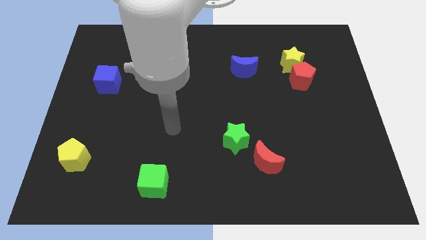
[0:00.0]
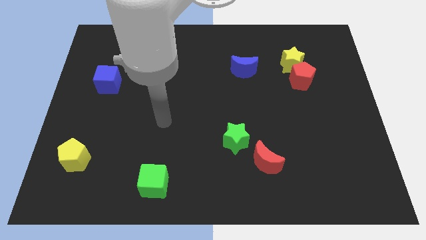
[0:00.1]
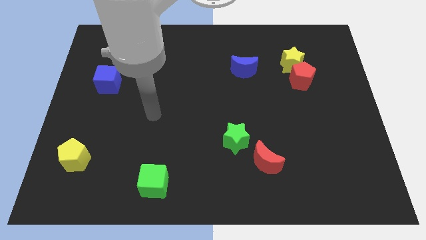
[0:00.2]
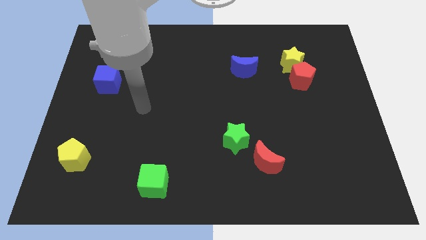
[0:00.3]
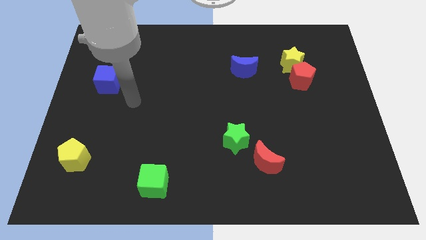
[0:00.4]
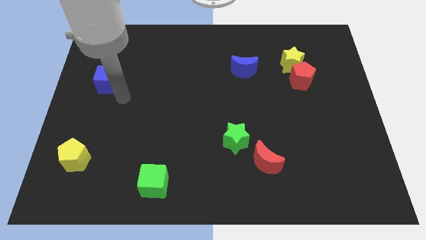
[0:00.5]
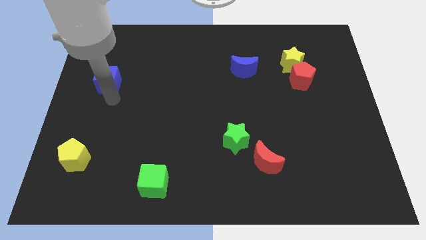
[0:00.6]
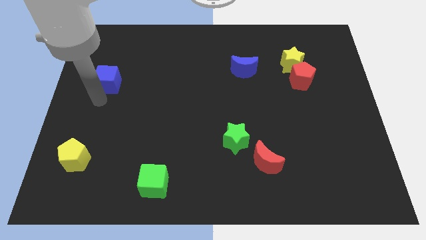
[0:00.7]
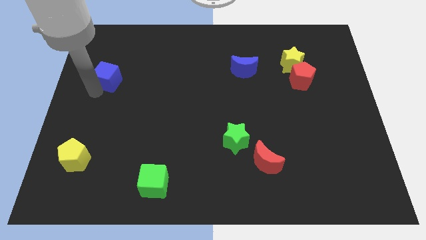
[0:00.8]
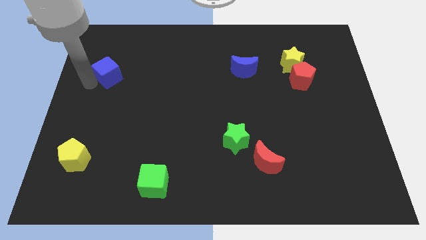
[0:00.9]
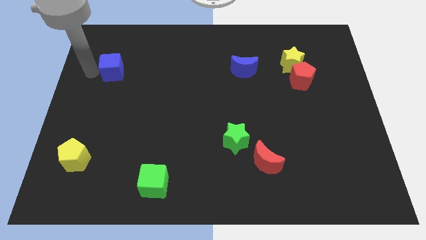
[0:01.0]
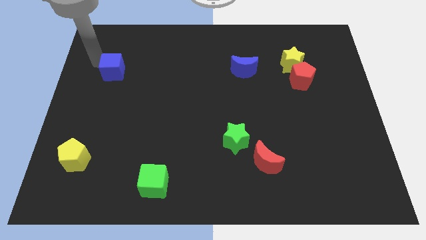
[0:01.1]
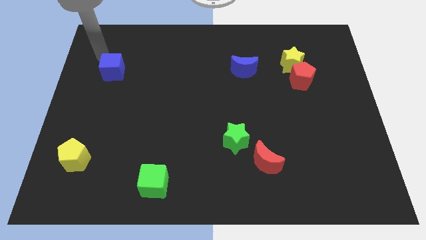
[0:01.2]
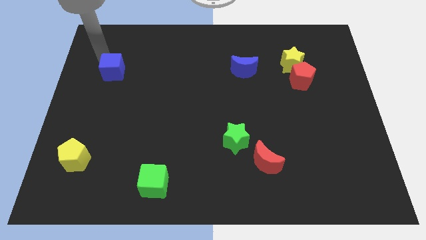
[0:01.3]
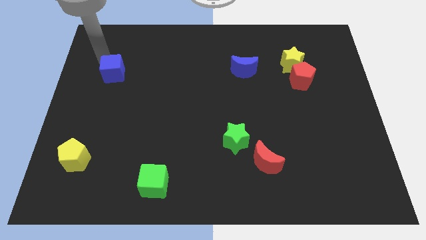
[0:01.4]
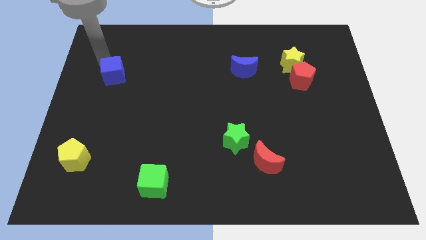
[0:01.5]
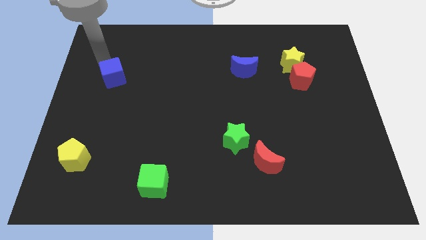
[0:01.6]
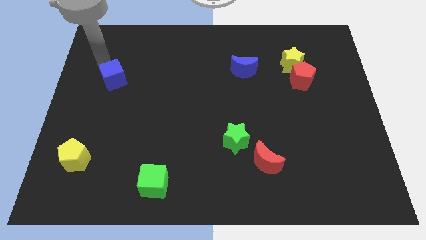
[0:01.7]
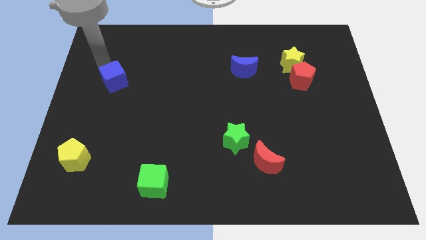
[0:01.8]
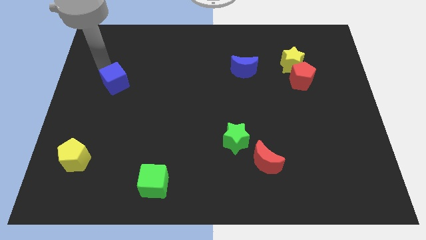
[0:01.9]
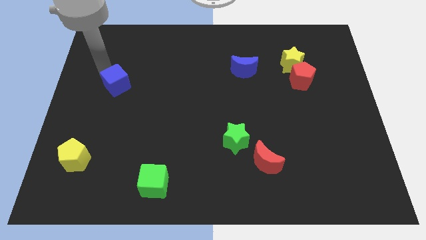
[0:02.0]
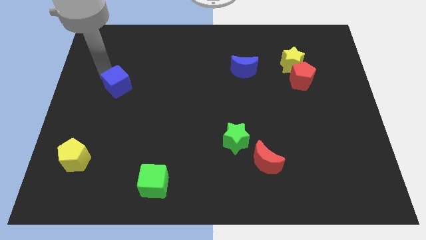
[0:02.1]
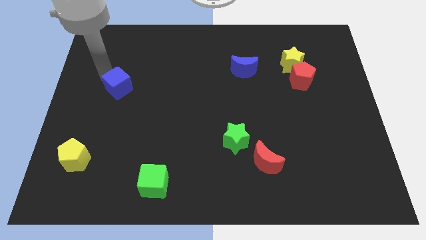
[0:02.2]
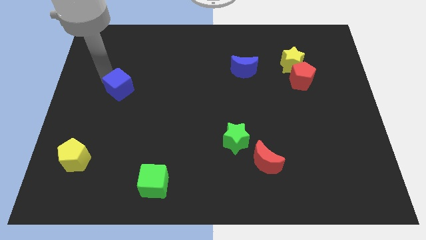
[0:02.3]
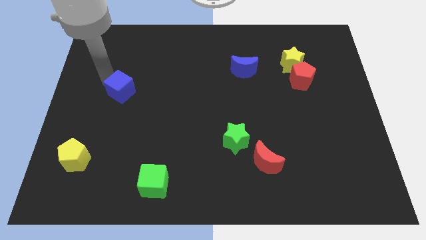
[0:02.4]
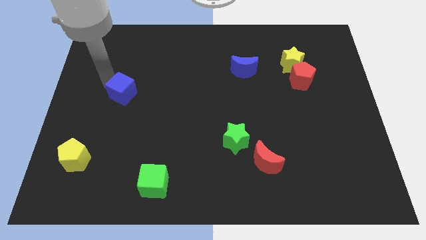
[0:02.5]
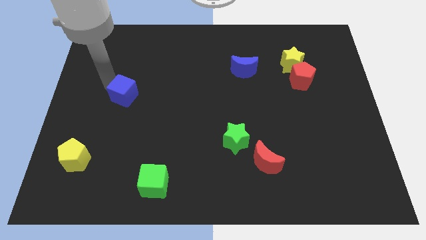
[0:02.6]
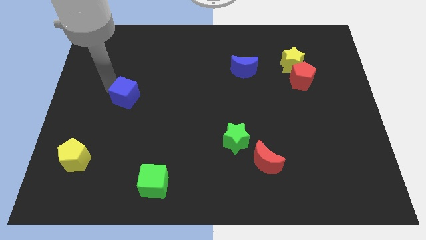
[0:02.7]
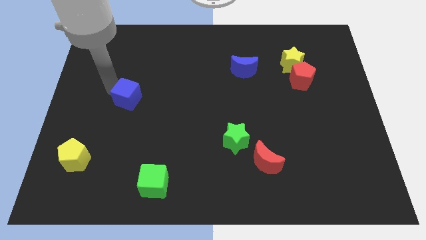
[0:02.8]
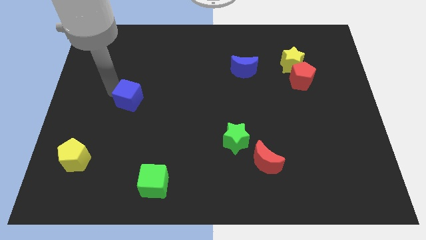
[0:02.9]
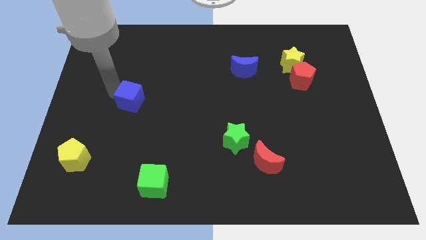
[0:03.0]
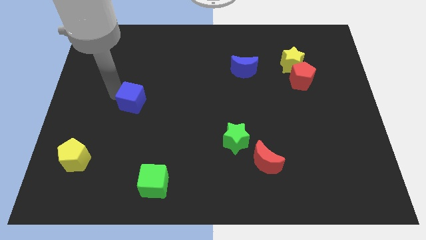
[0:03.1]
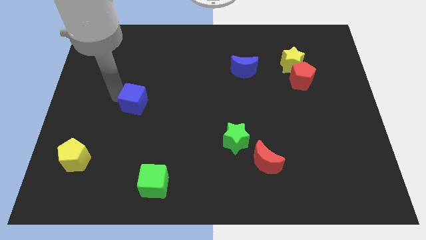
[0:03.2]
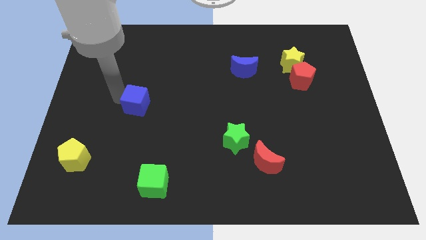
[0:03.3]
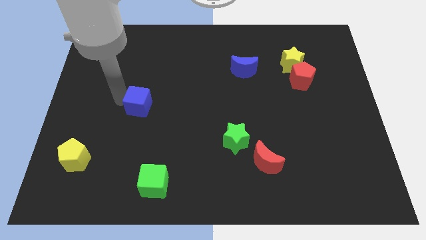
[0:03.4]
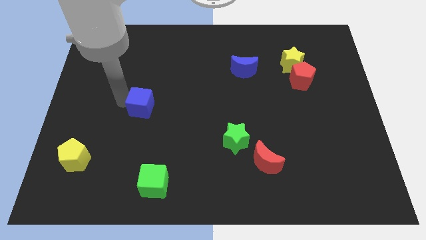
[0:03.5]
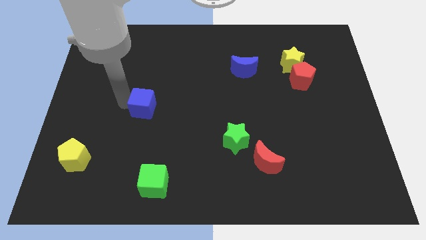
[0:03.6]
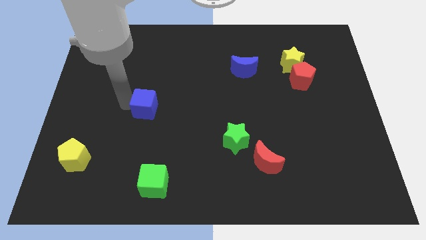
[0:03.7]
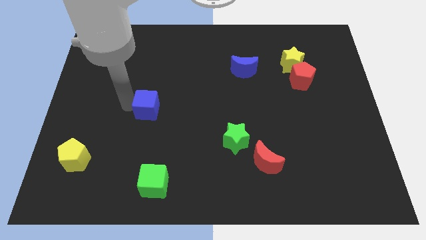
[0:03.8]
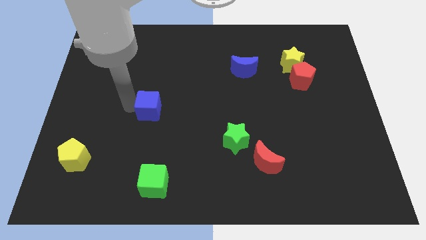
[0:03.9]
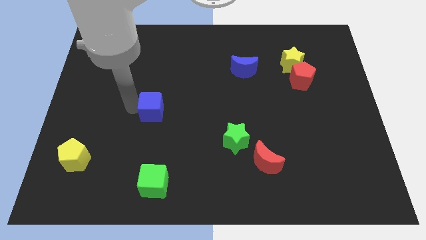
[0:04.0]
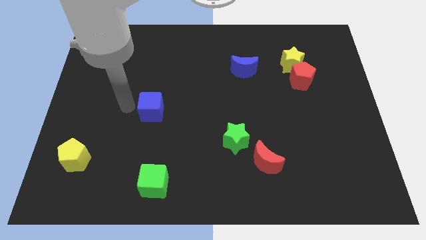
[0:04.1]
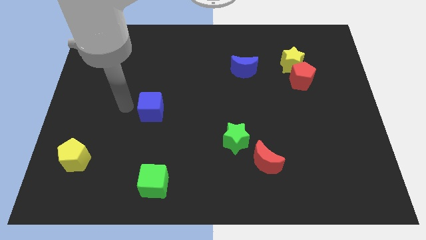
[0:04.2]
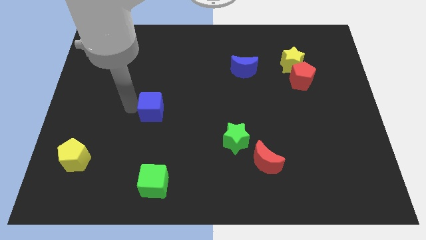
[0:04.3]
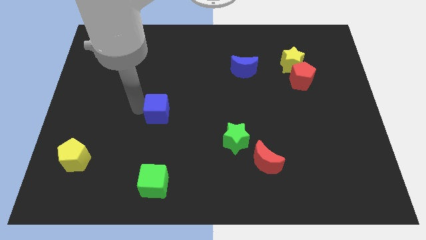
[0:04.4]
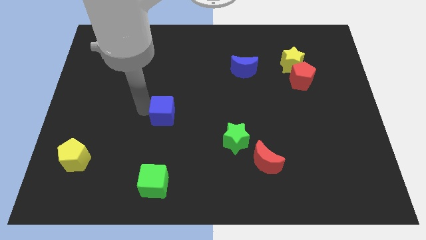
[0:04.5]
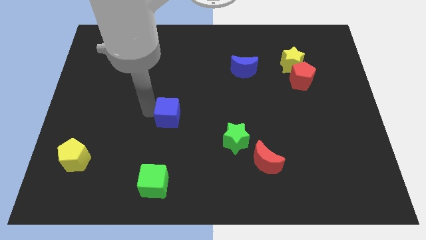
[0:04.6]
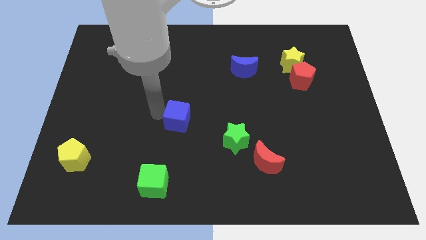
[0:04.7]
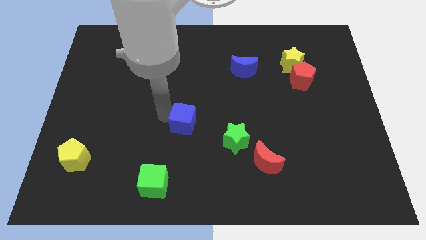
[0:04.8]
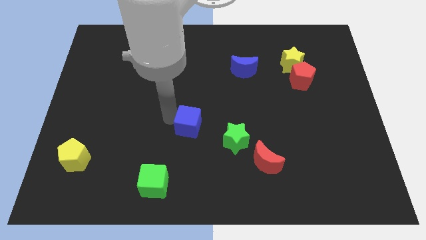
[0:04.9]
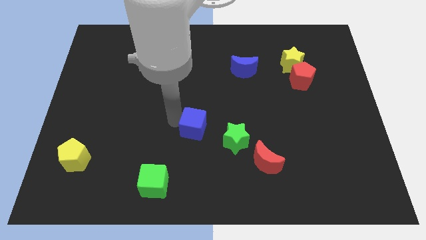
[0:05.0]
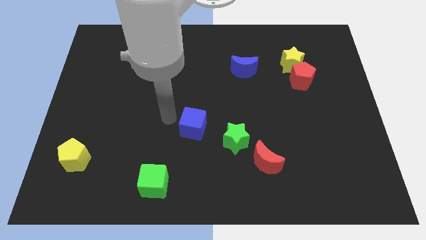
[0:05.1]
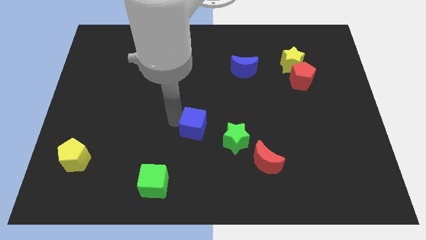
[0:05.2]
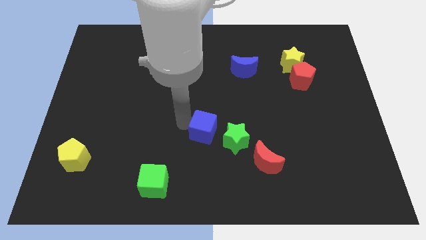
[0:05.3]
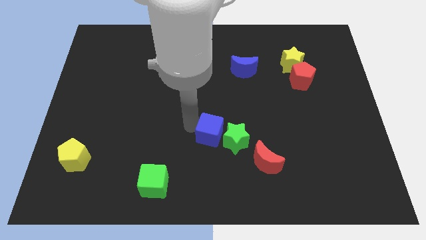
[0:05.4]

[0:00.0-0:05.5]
put the blue cube towards the green star

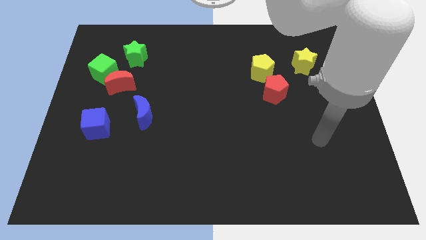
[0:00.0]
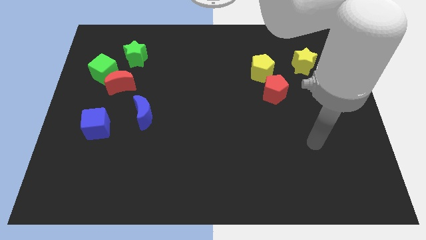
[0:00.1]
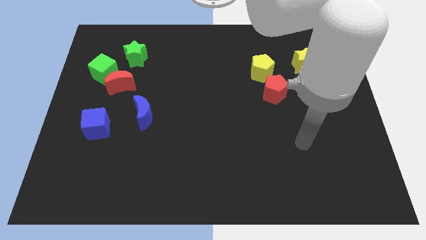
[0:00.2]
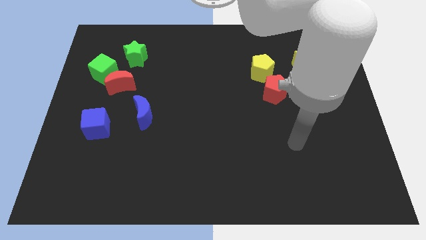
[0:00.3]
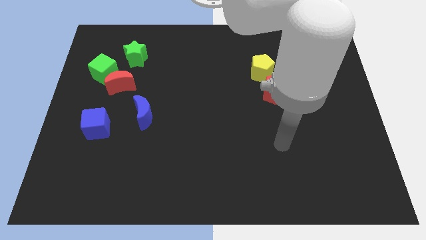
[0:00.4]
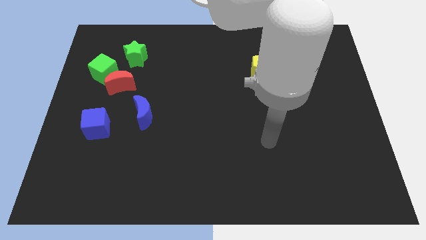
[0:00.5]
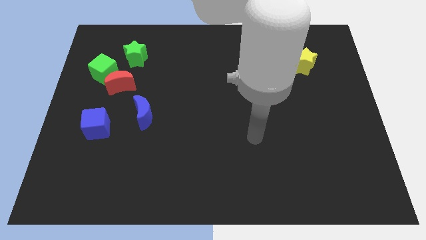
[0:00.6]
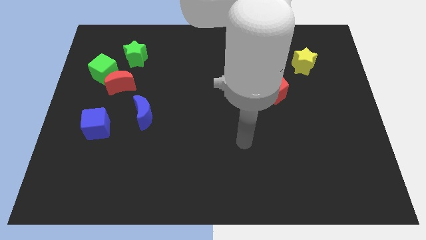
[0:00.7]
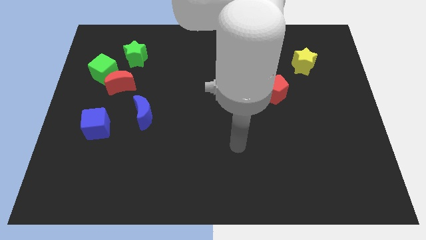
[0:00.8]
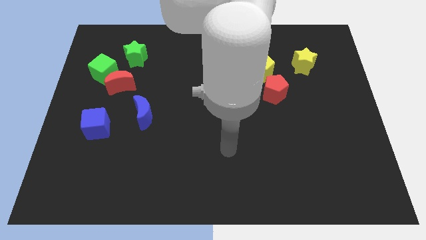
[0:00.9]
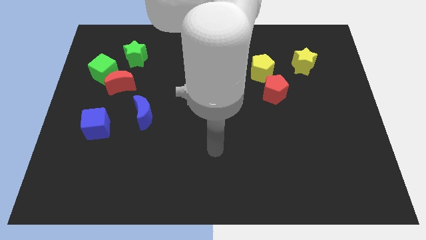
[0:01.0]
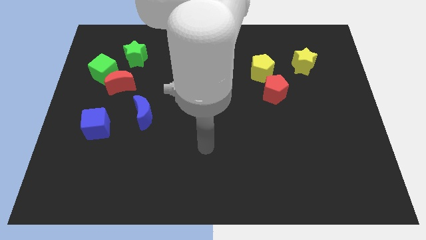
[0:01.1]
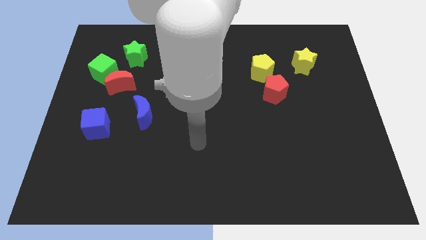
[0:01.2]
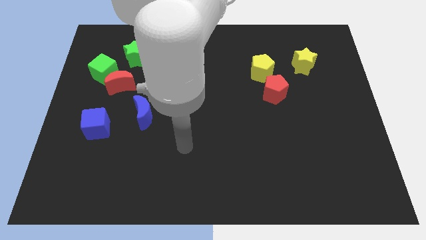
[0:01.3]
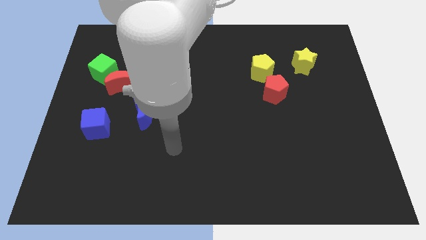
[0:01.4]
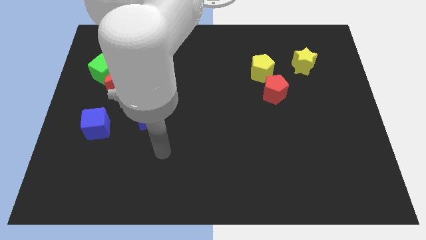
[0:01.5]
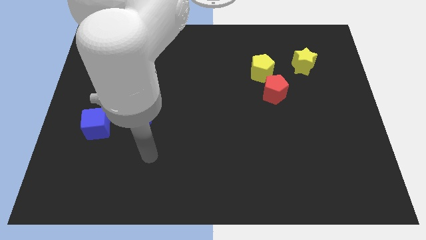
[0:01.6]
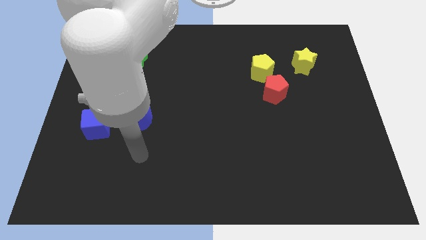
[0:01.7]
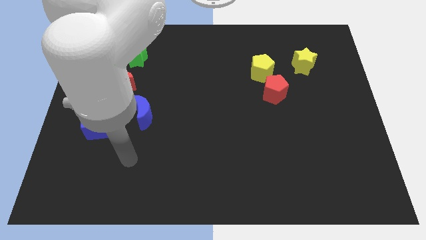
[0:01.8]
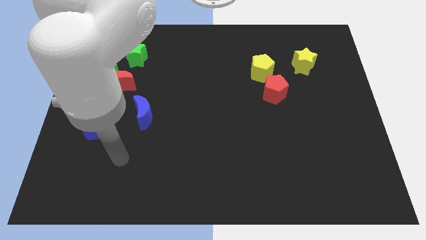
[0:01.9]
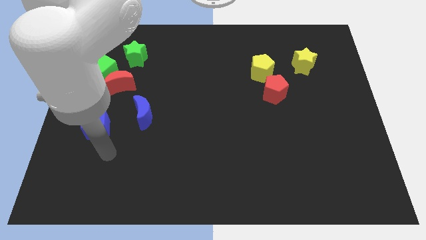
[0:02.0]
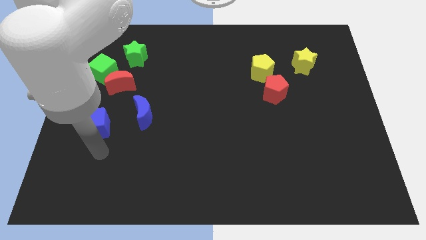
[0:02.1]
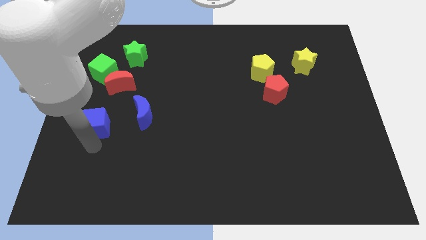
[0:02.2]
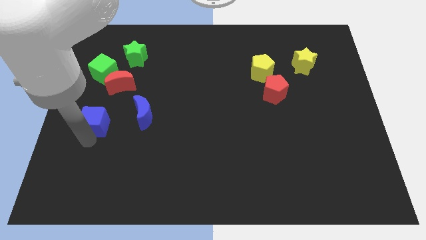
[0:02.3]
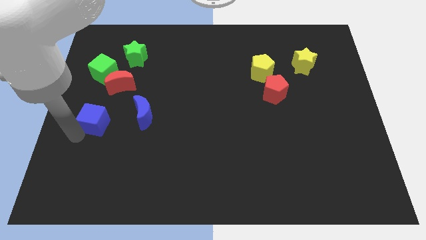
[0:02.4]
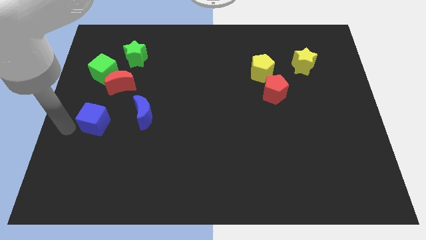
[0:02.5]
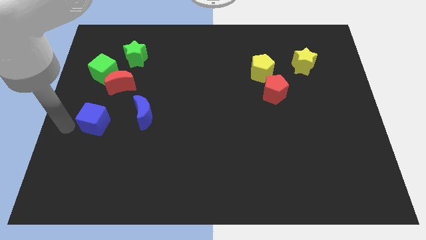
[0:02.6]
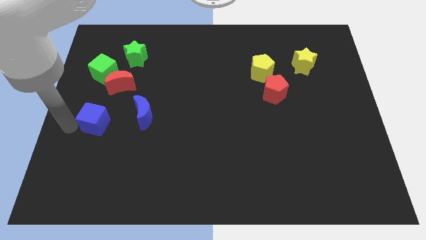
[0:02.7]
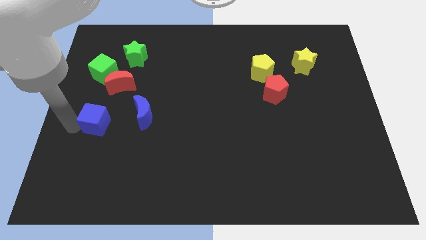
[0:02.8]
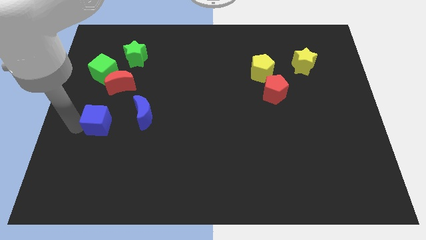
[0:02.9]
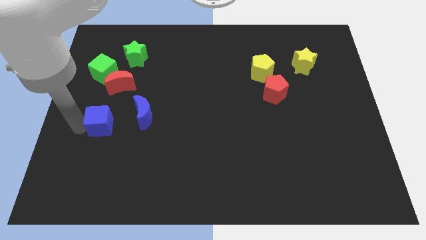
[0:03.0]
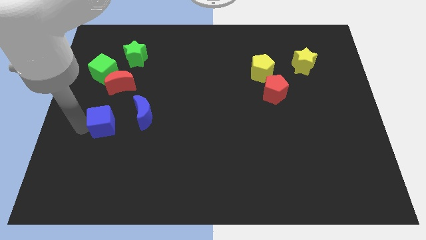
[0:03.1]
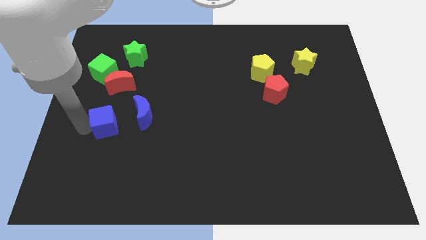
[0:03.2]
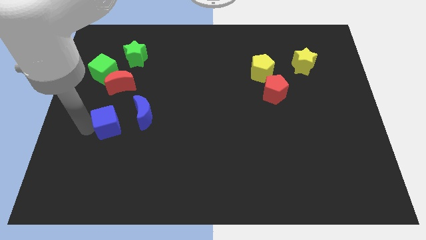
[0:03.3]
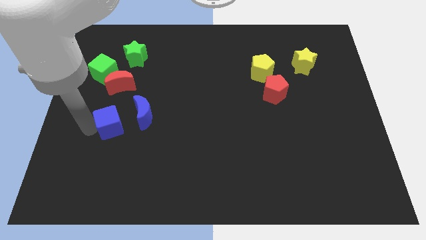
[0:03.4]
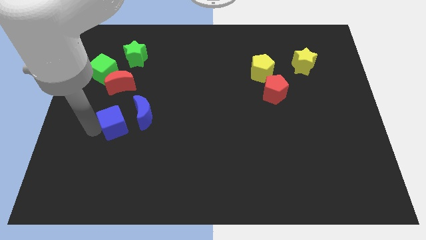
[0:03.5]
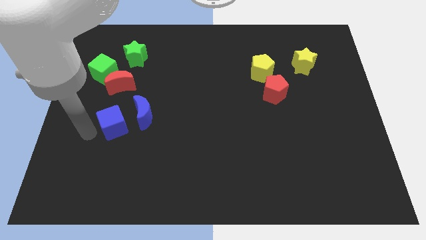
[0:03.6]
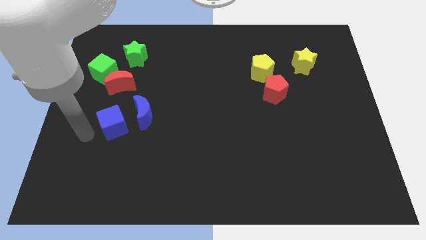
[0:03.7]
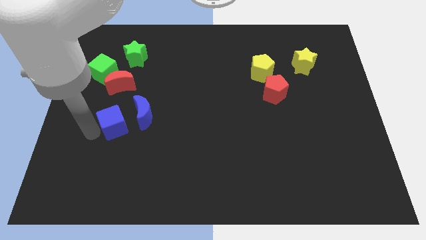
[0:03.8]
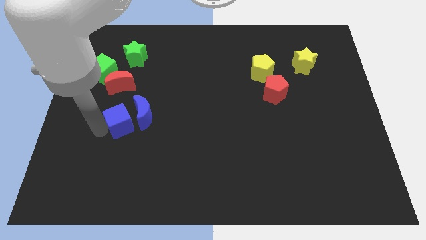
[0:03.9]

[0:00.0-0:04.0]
push the blue cube close to the blue moon
